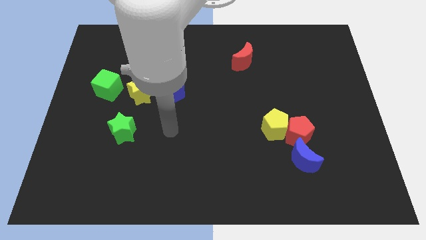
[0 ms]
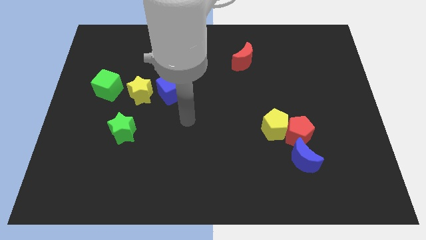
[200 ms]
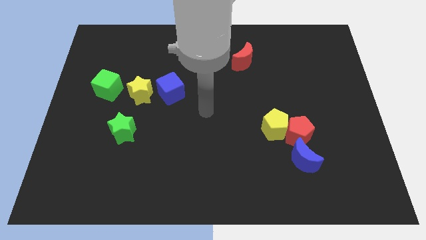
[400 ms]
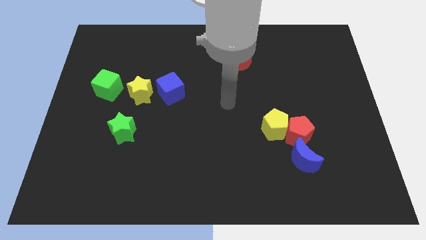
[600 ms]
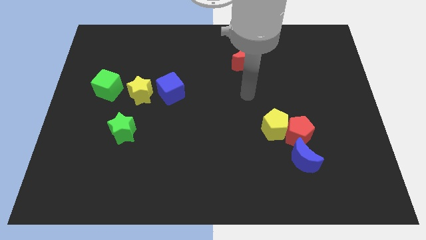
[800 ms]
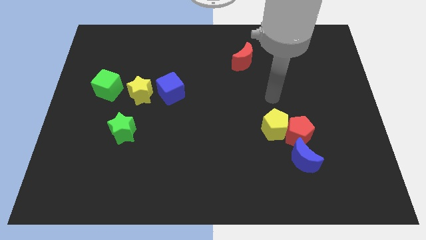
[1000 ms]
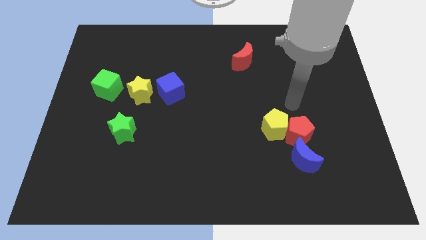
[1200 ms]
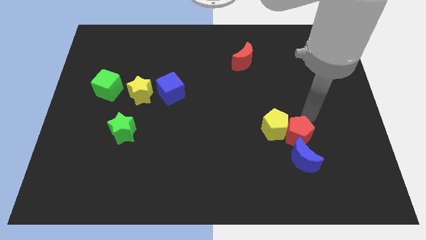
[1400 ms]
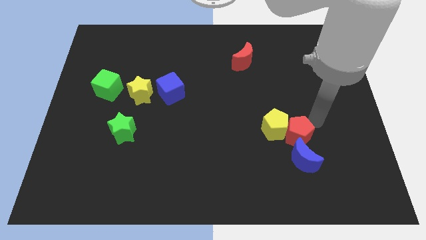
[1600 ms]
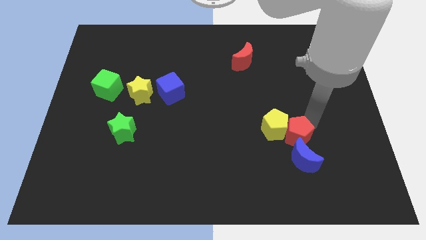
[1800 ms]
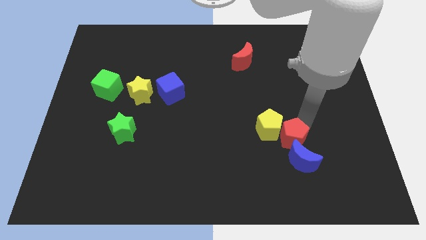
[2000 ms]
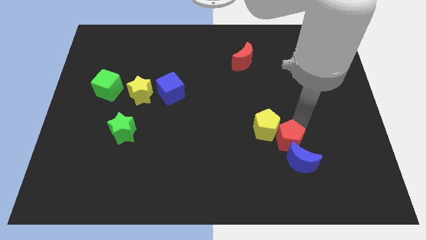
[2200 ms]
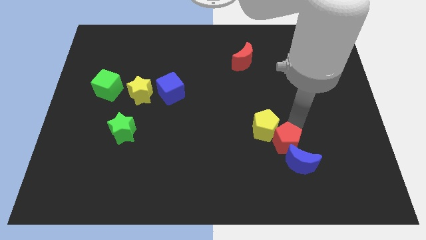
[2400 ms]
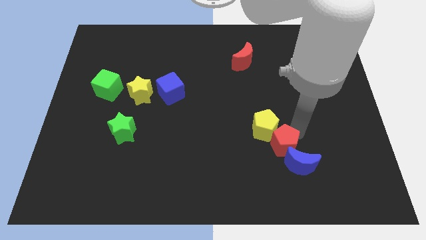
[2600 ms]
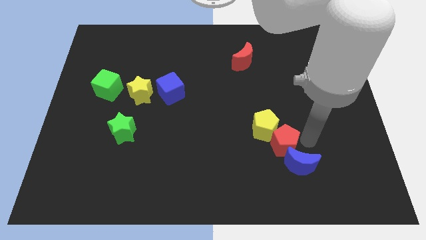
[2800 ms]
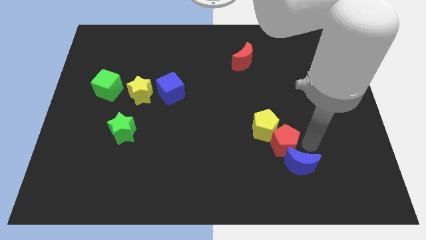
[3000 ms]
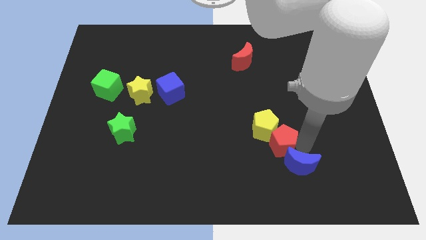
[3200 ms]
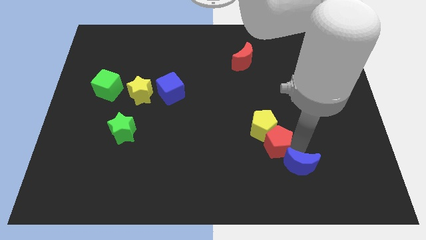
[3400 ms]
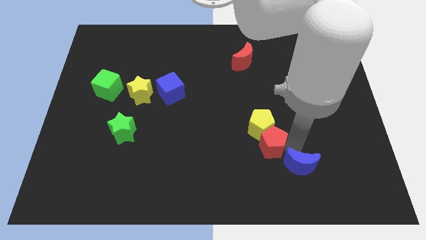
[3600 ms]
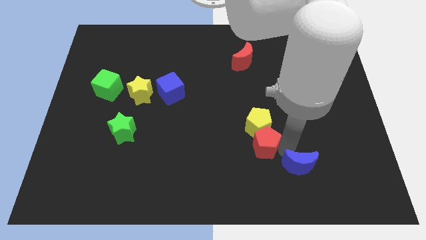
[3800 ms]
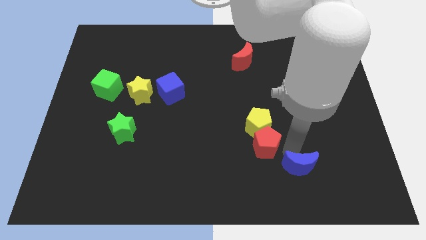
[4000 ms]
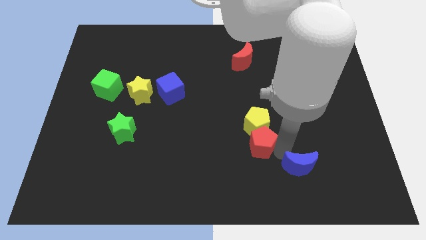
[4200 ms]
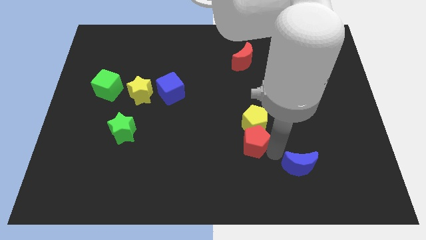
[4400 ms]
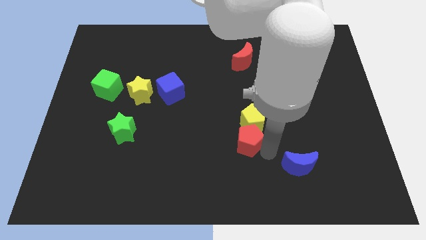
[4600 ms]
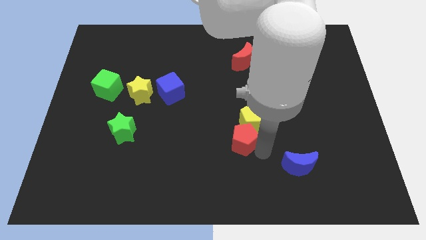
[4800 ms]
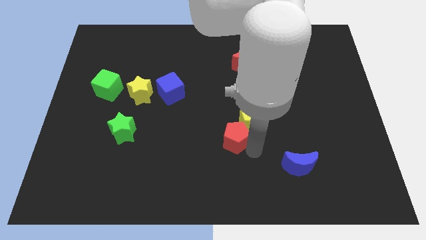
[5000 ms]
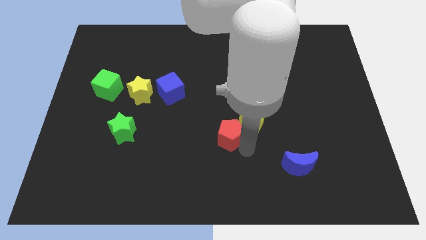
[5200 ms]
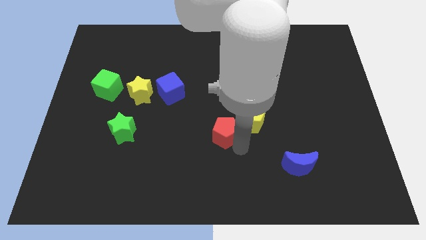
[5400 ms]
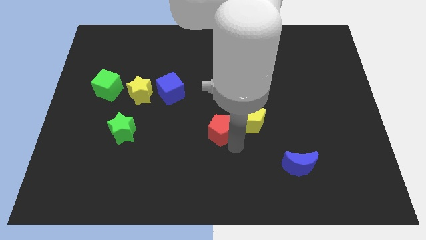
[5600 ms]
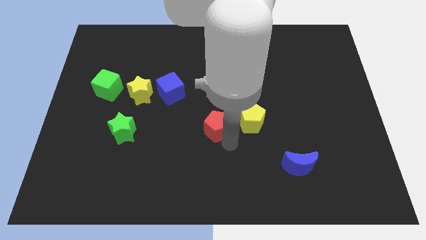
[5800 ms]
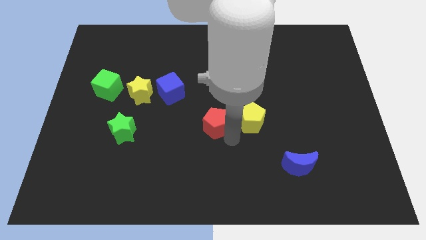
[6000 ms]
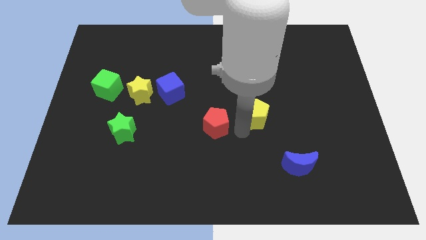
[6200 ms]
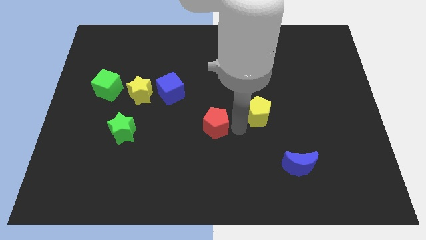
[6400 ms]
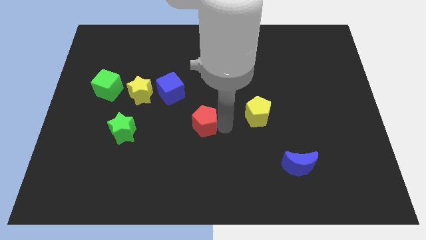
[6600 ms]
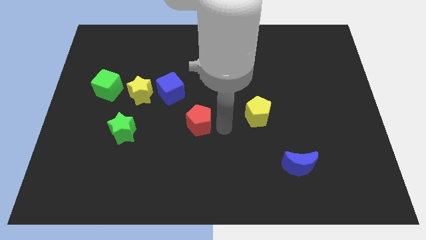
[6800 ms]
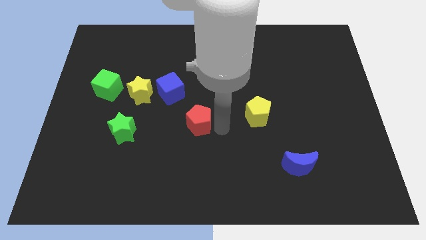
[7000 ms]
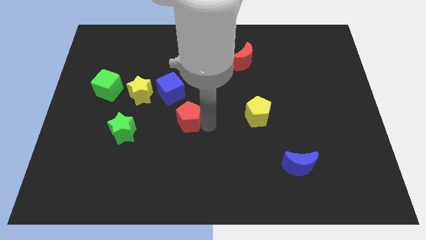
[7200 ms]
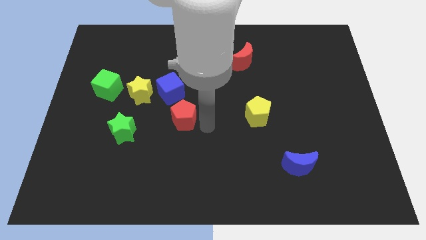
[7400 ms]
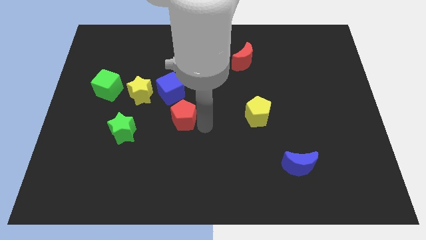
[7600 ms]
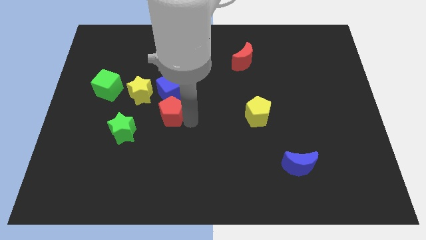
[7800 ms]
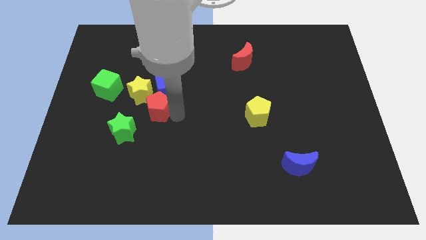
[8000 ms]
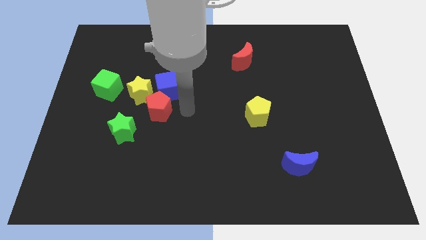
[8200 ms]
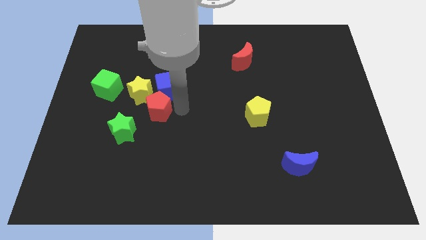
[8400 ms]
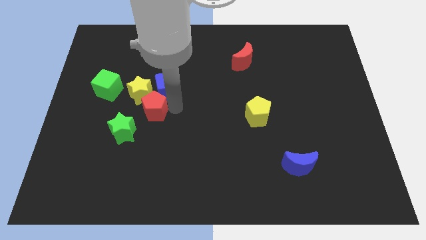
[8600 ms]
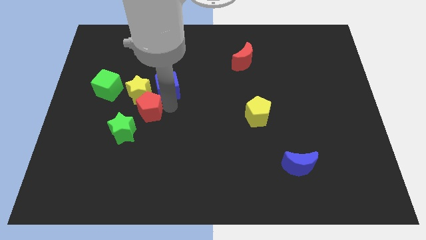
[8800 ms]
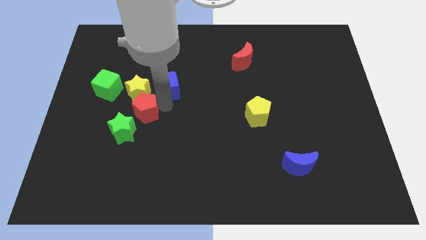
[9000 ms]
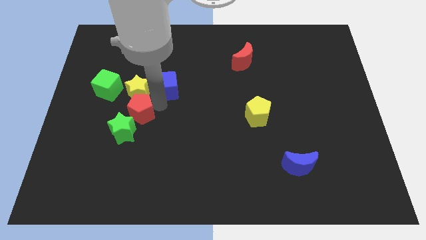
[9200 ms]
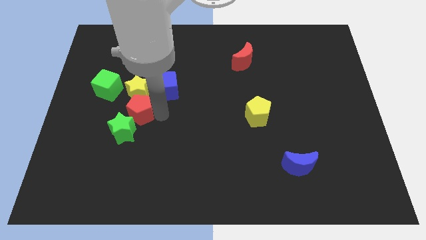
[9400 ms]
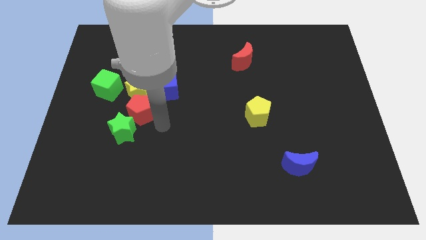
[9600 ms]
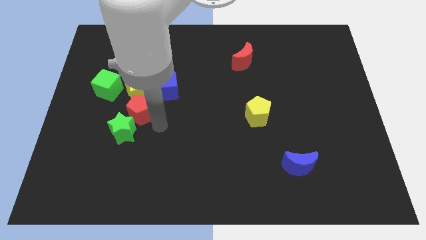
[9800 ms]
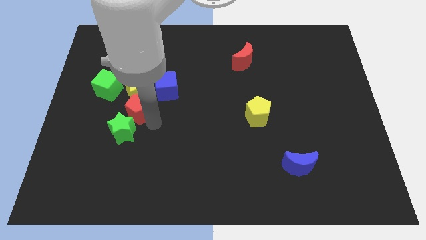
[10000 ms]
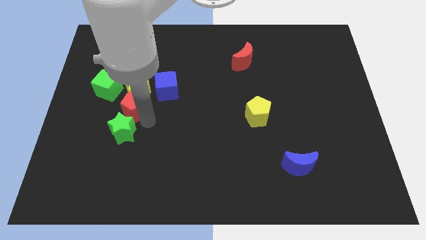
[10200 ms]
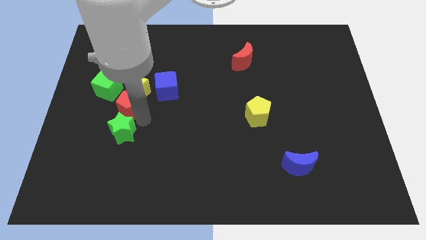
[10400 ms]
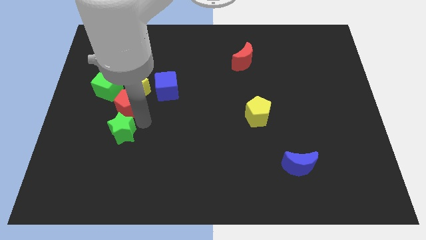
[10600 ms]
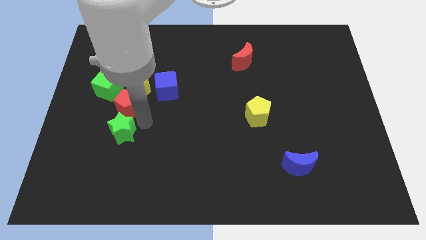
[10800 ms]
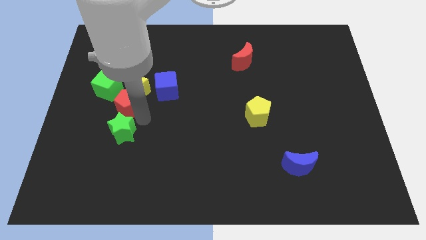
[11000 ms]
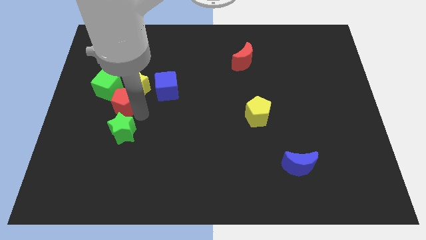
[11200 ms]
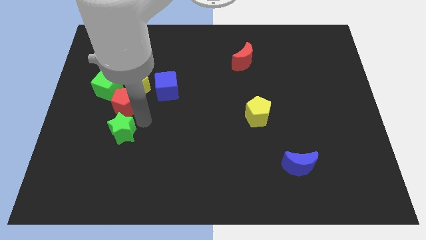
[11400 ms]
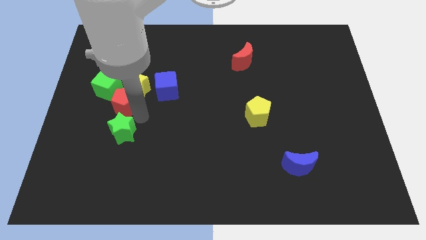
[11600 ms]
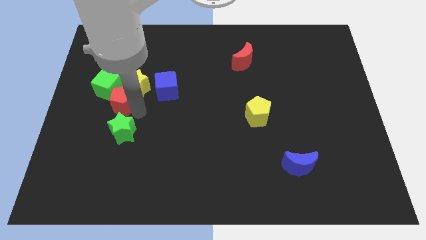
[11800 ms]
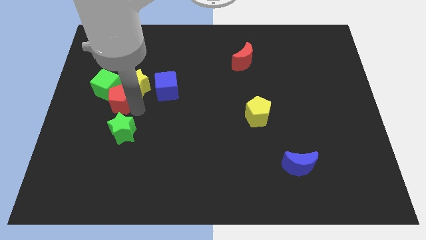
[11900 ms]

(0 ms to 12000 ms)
push the red pentagon next to the green cube

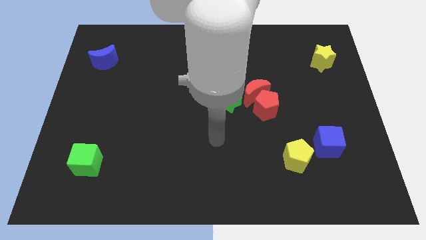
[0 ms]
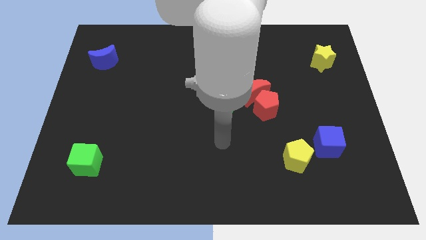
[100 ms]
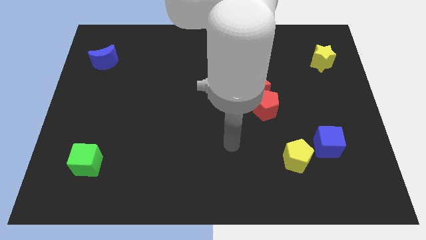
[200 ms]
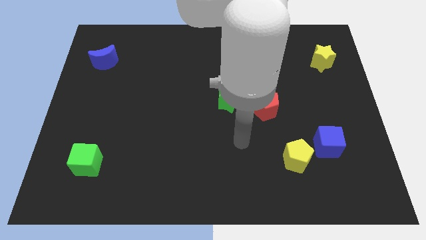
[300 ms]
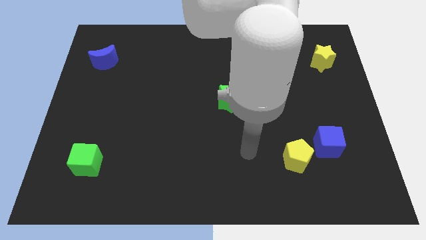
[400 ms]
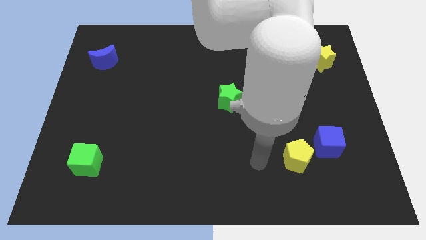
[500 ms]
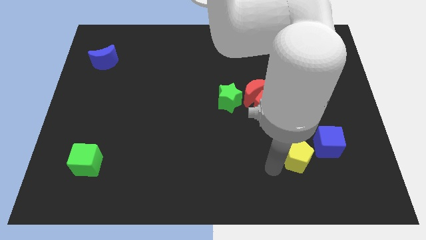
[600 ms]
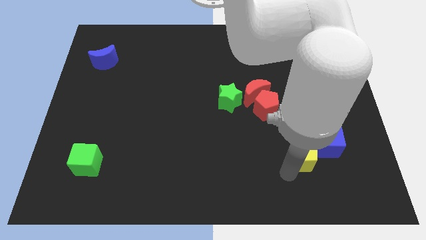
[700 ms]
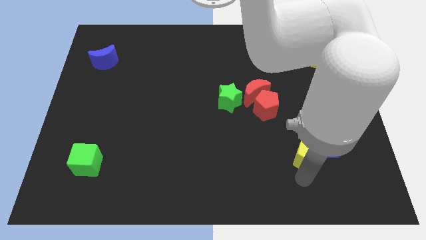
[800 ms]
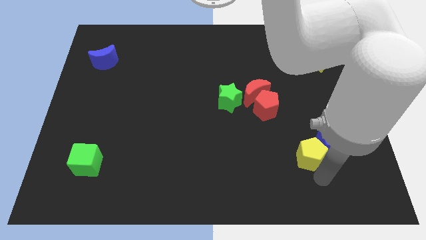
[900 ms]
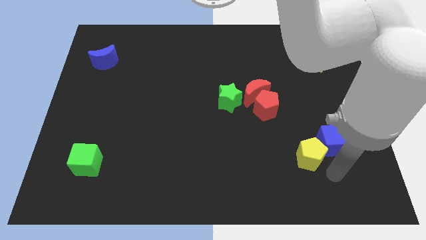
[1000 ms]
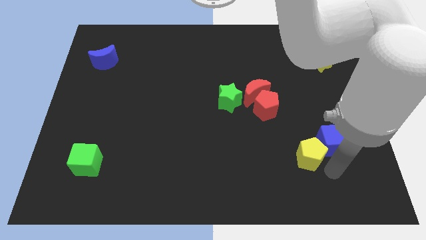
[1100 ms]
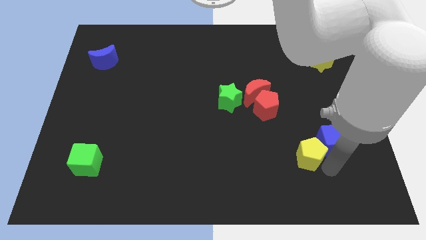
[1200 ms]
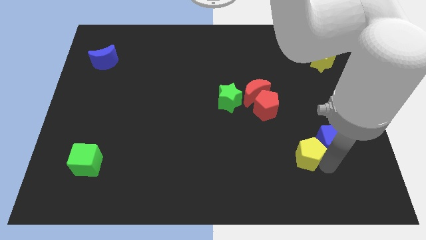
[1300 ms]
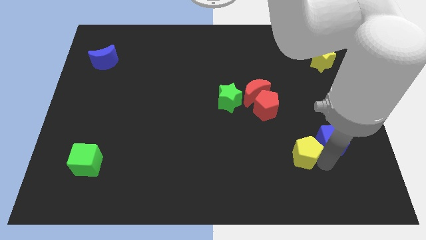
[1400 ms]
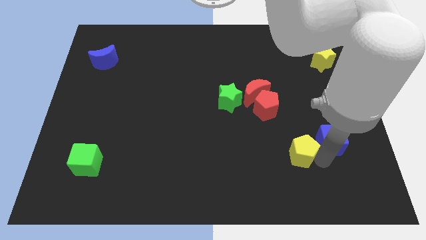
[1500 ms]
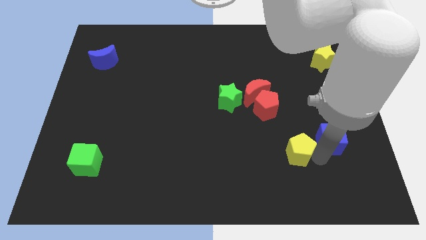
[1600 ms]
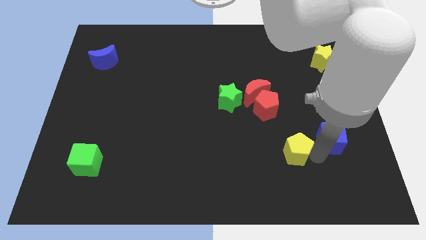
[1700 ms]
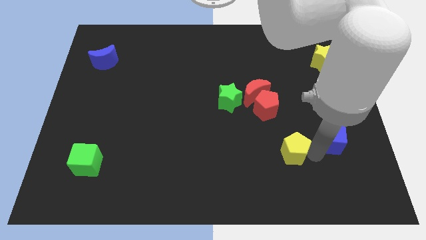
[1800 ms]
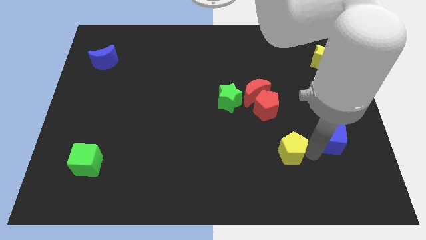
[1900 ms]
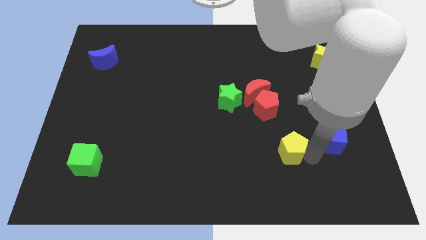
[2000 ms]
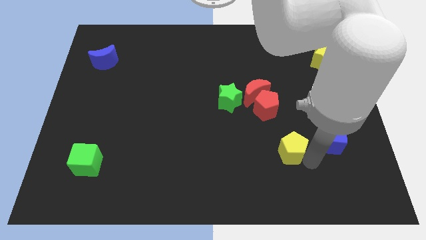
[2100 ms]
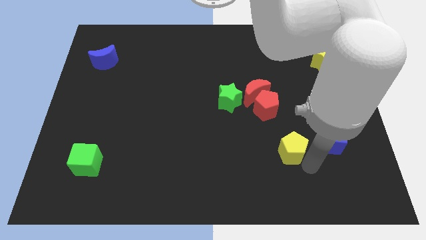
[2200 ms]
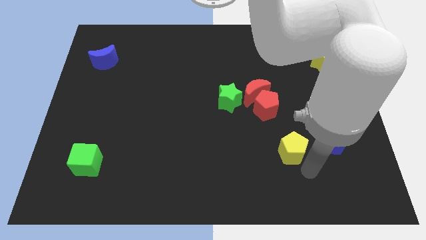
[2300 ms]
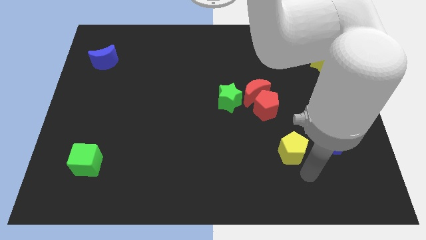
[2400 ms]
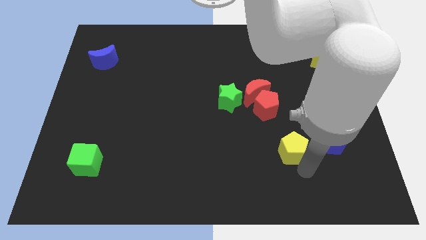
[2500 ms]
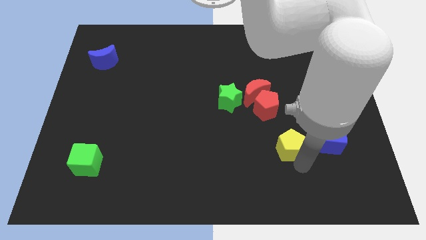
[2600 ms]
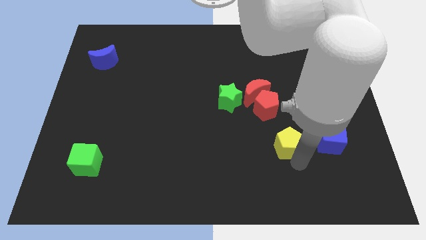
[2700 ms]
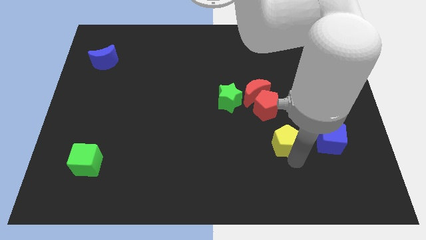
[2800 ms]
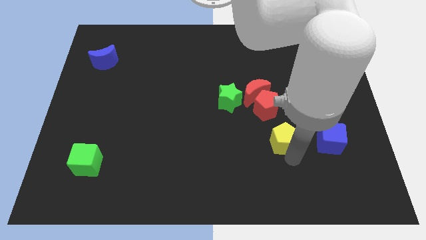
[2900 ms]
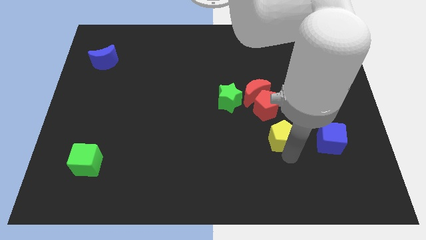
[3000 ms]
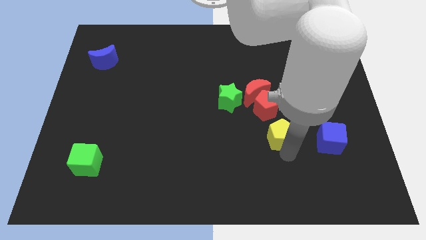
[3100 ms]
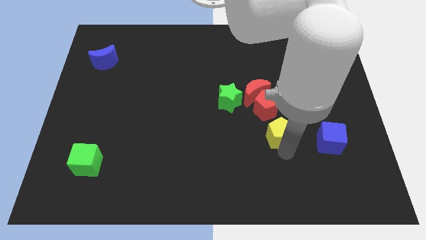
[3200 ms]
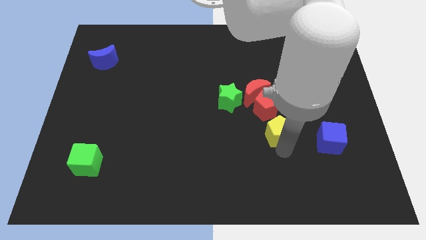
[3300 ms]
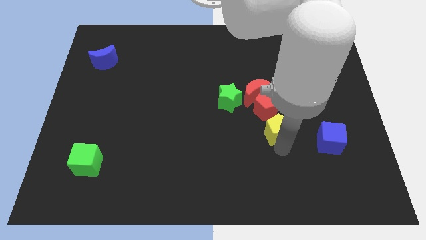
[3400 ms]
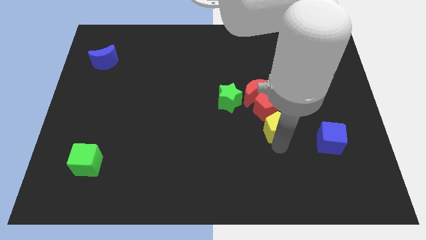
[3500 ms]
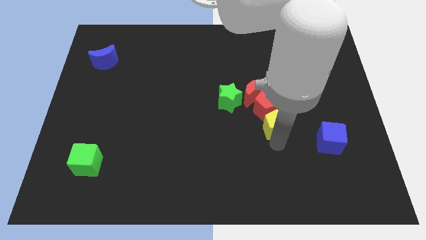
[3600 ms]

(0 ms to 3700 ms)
push the yellow pentagon next to the red pentagon
